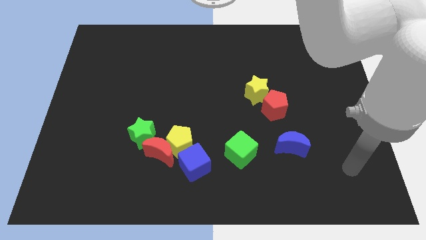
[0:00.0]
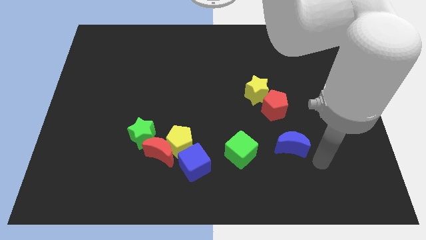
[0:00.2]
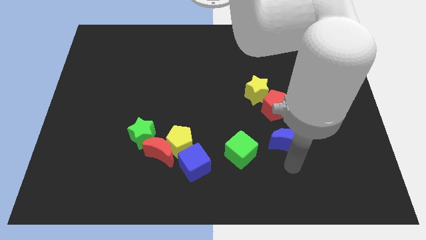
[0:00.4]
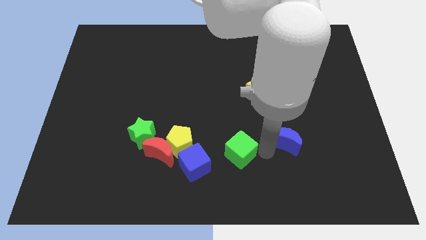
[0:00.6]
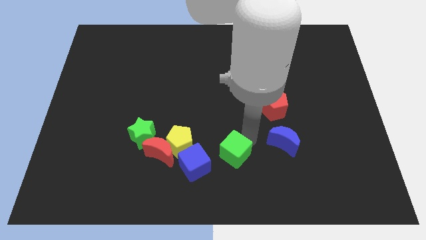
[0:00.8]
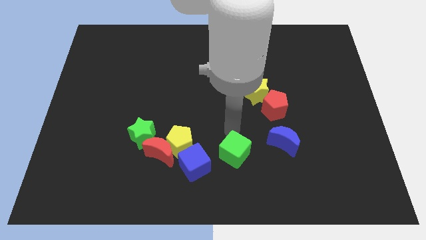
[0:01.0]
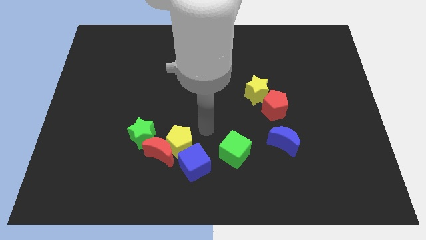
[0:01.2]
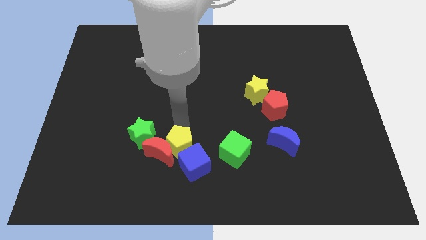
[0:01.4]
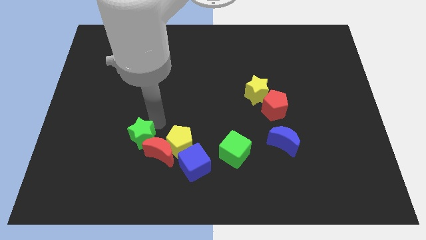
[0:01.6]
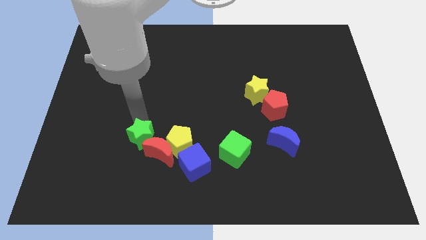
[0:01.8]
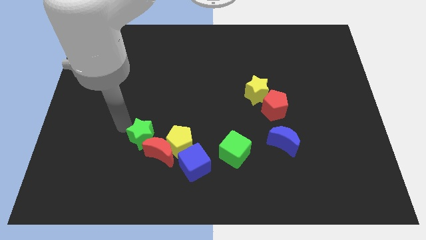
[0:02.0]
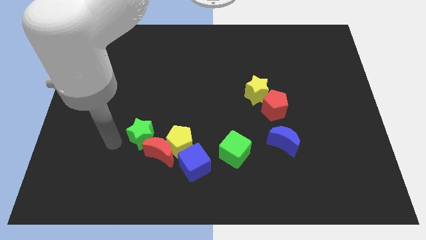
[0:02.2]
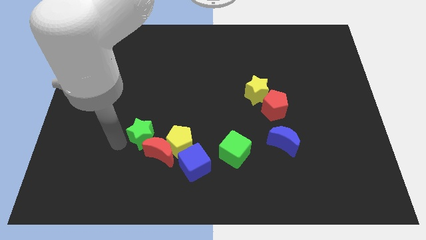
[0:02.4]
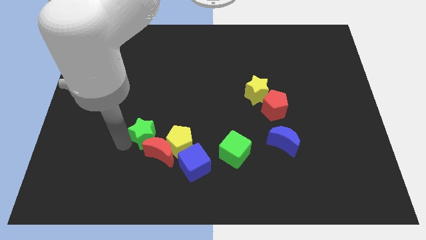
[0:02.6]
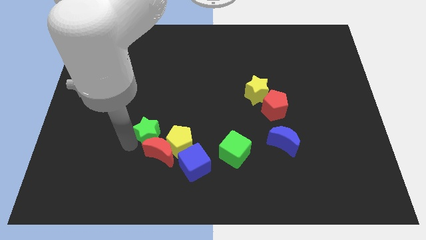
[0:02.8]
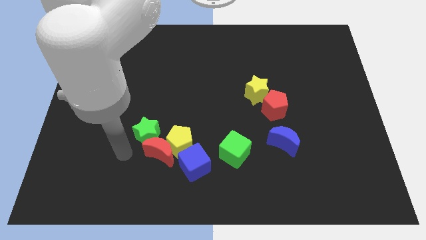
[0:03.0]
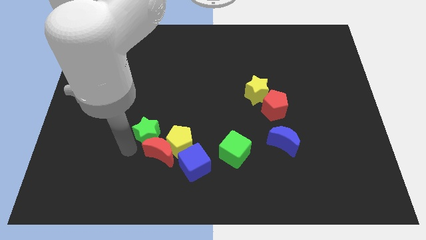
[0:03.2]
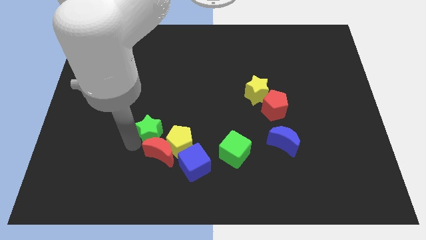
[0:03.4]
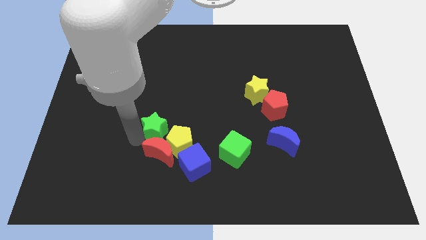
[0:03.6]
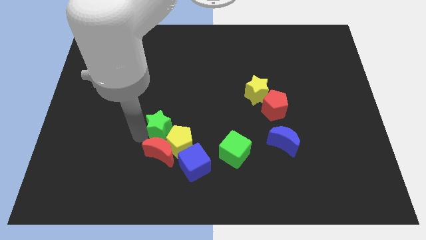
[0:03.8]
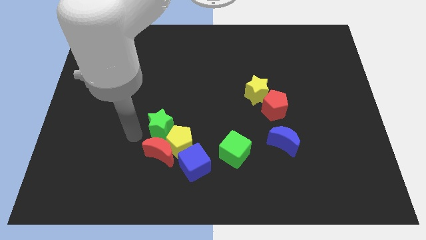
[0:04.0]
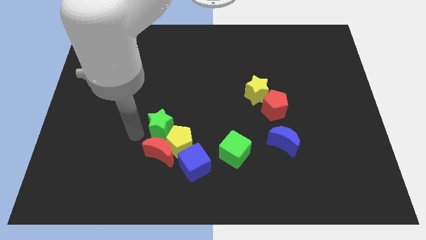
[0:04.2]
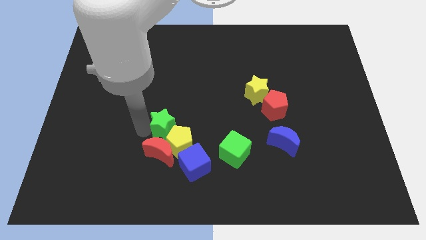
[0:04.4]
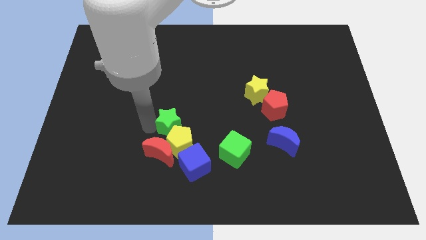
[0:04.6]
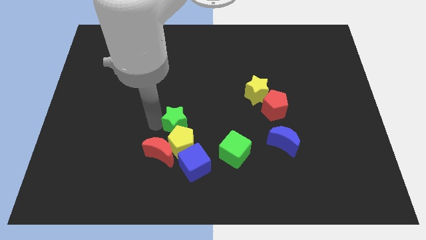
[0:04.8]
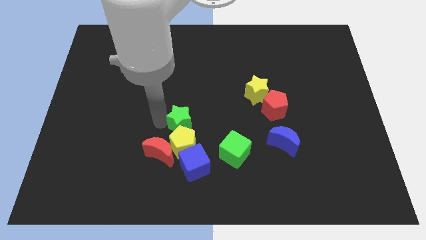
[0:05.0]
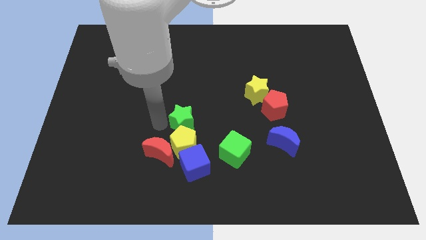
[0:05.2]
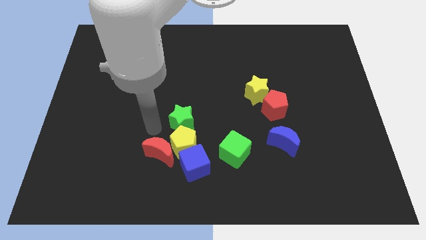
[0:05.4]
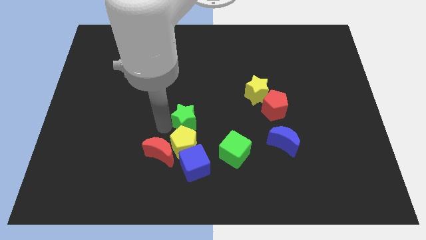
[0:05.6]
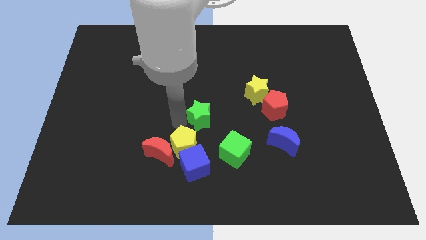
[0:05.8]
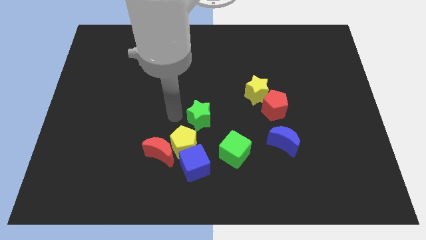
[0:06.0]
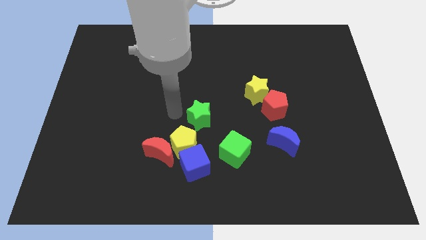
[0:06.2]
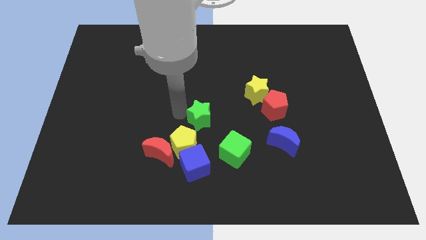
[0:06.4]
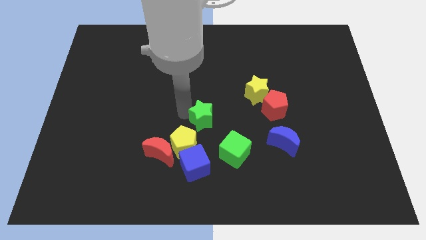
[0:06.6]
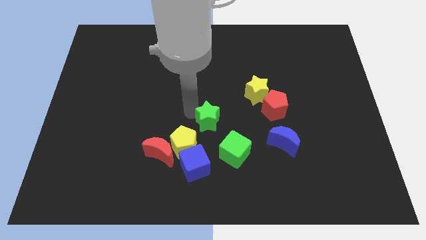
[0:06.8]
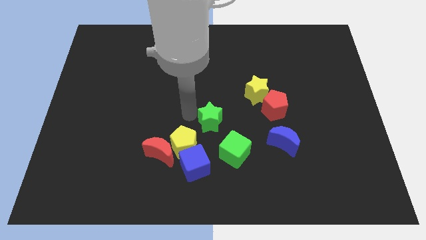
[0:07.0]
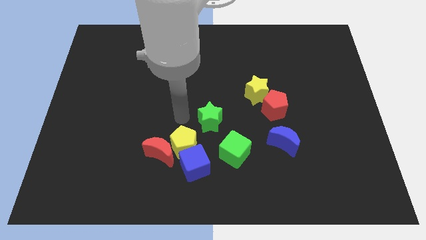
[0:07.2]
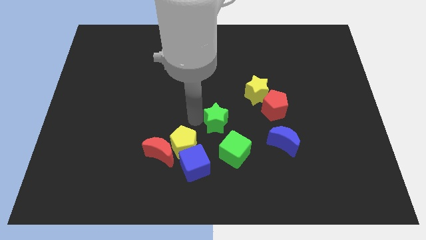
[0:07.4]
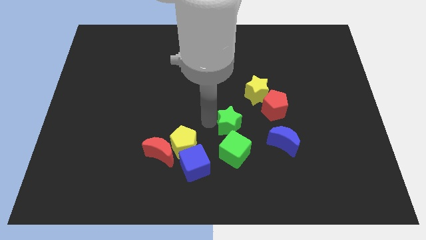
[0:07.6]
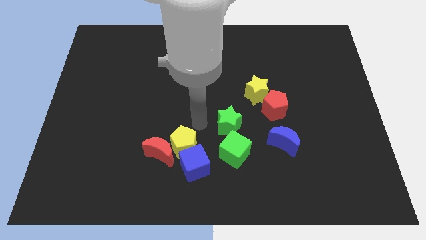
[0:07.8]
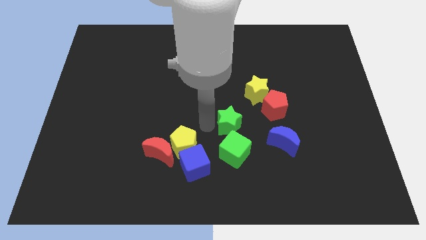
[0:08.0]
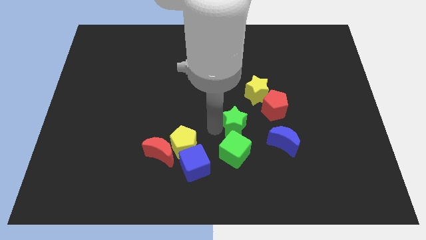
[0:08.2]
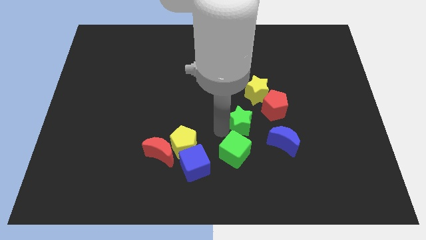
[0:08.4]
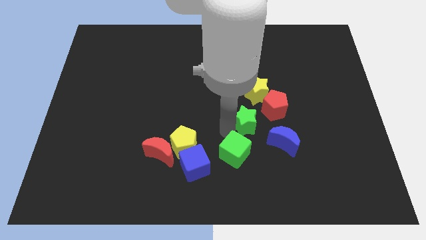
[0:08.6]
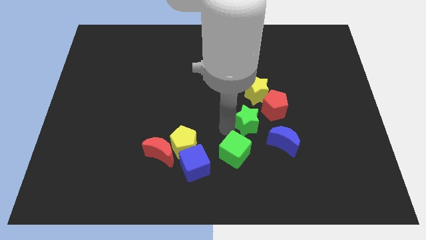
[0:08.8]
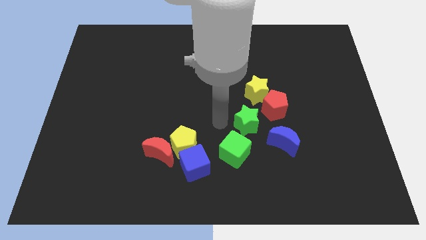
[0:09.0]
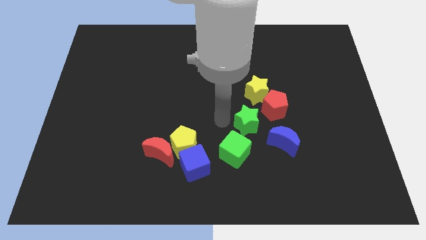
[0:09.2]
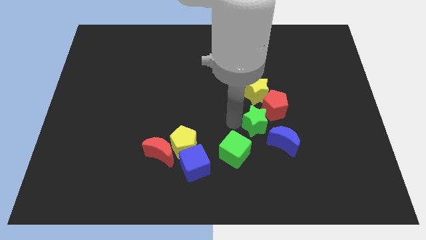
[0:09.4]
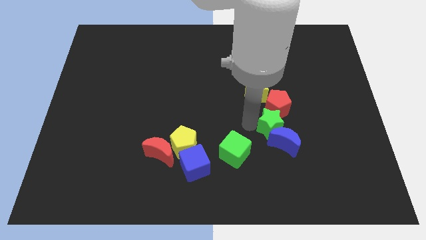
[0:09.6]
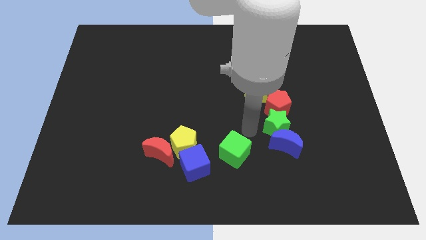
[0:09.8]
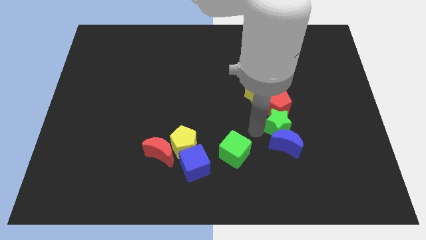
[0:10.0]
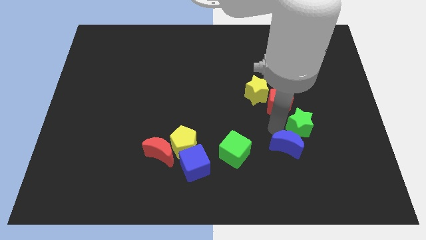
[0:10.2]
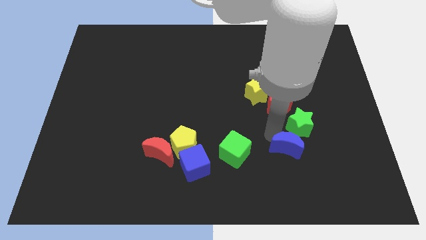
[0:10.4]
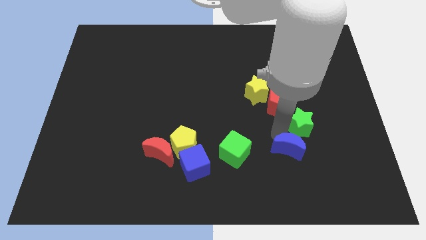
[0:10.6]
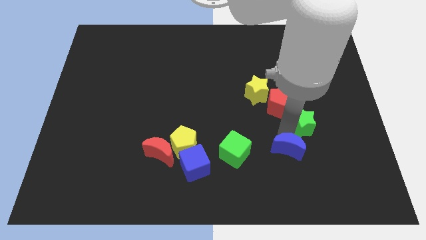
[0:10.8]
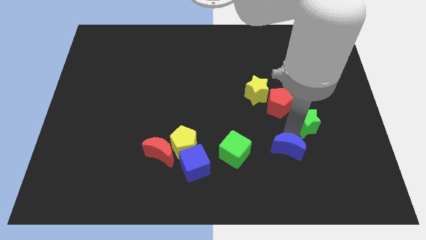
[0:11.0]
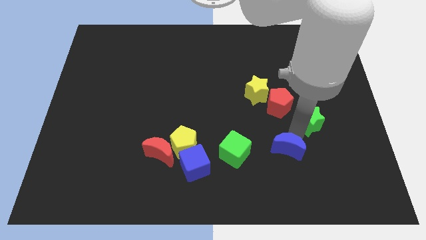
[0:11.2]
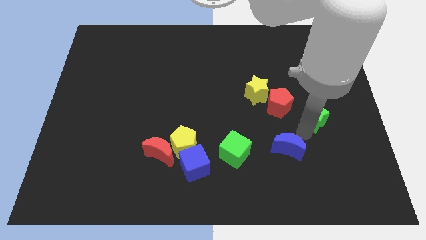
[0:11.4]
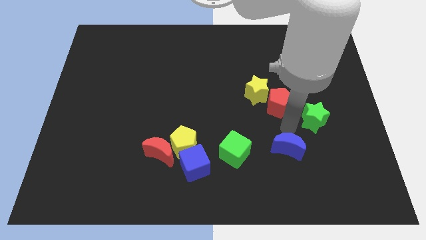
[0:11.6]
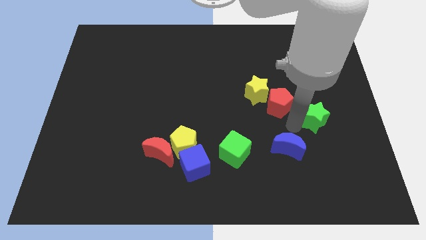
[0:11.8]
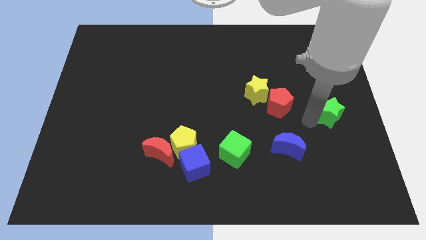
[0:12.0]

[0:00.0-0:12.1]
move the green star to the center right

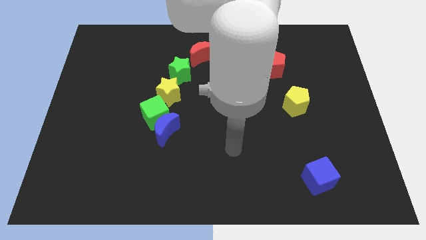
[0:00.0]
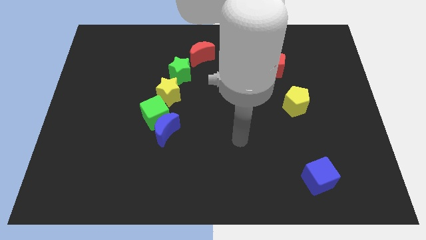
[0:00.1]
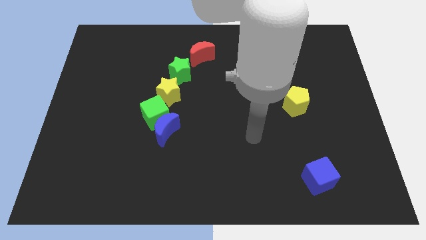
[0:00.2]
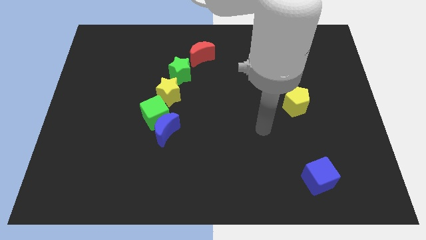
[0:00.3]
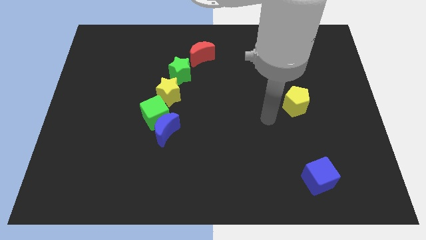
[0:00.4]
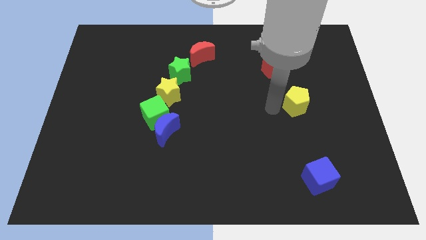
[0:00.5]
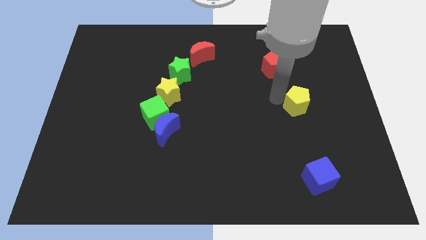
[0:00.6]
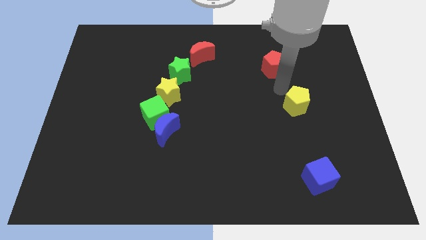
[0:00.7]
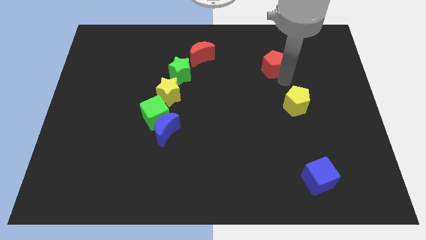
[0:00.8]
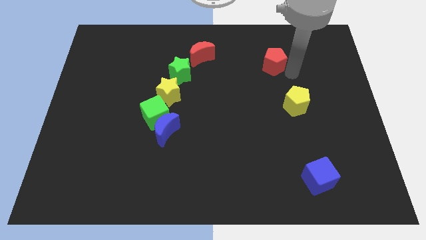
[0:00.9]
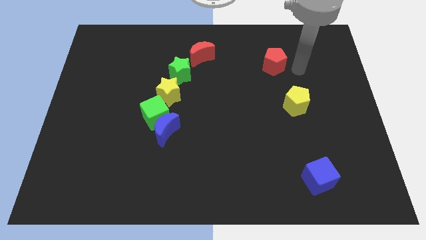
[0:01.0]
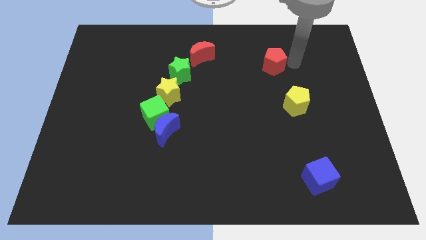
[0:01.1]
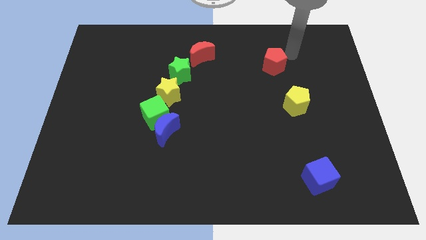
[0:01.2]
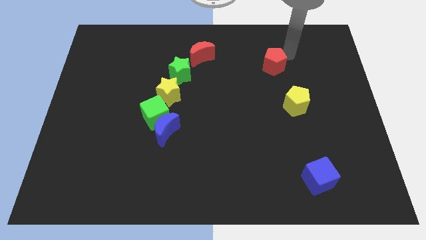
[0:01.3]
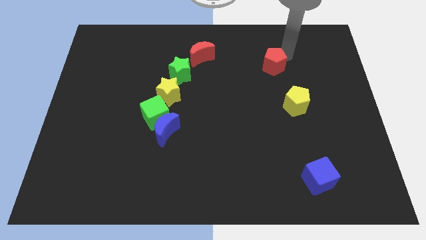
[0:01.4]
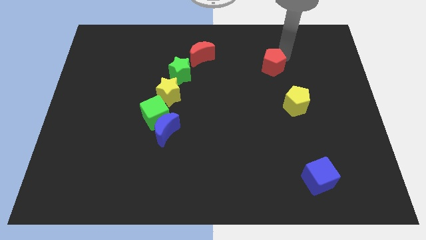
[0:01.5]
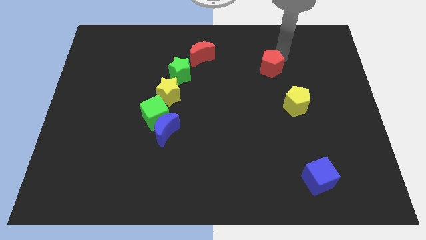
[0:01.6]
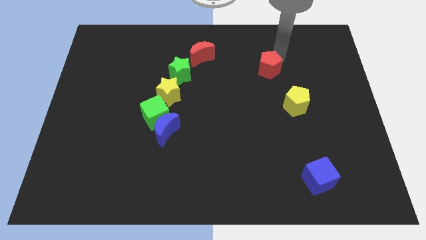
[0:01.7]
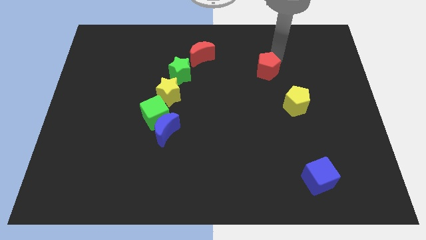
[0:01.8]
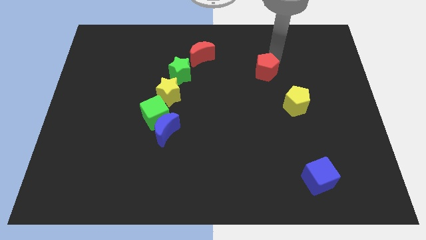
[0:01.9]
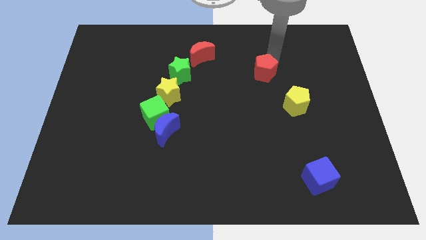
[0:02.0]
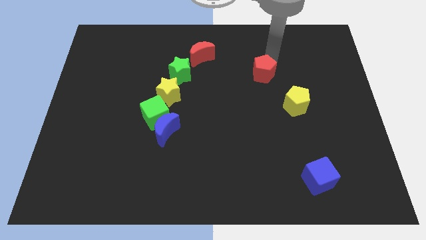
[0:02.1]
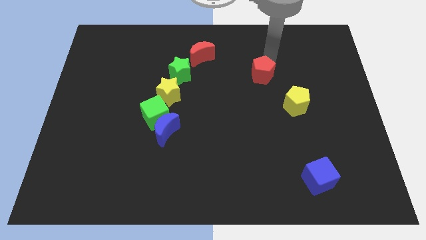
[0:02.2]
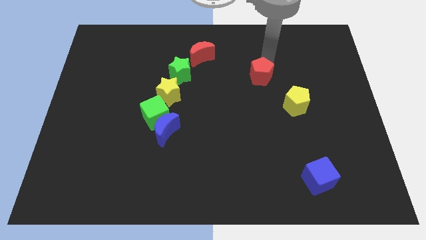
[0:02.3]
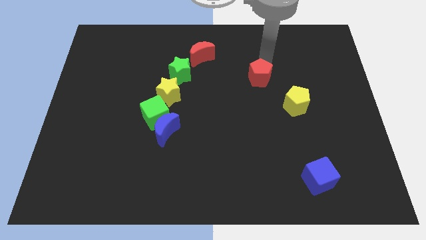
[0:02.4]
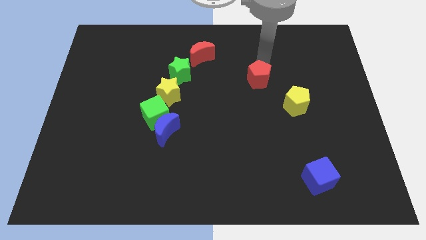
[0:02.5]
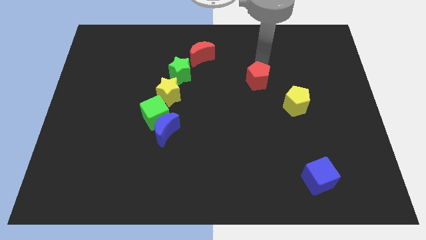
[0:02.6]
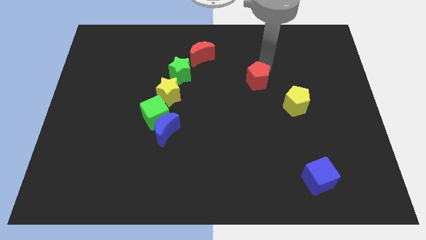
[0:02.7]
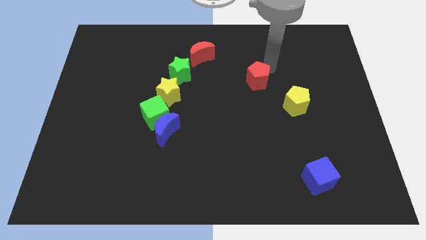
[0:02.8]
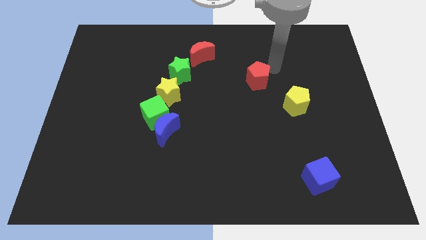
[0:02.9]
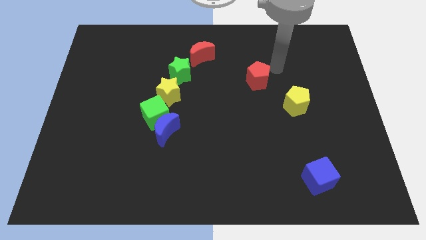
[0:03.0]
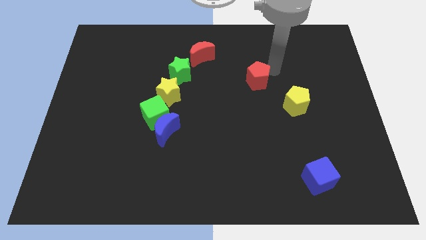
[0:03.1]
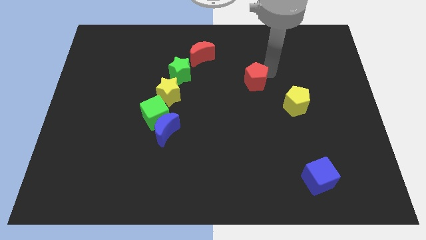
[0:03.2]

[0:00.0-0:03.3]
move the red pentagon to the center
